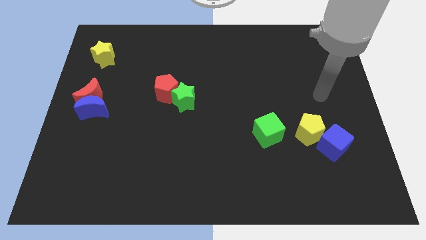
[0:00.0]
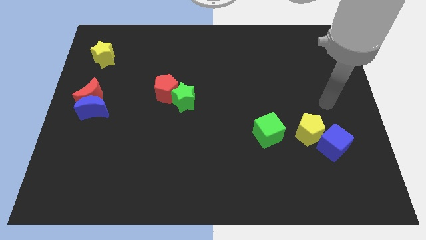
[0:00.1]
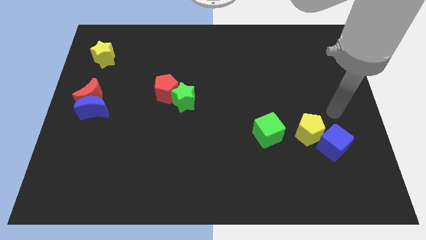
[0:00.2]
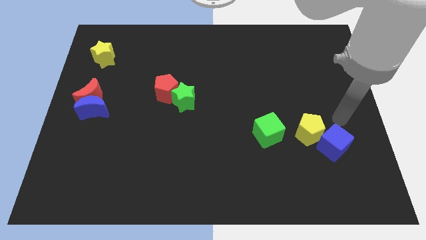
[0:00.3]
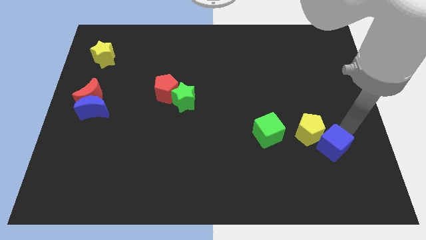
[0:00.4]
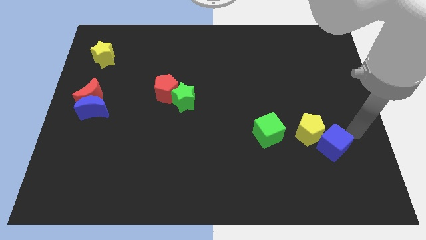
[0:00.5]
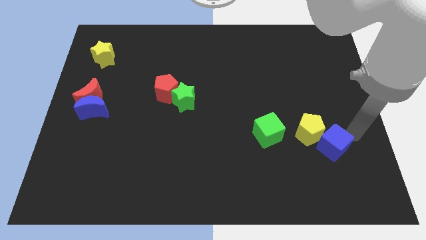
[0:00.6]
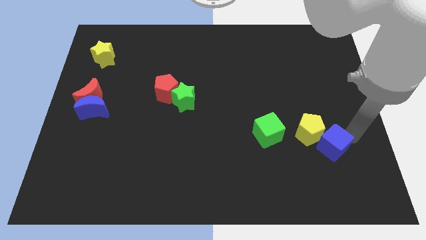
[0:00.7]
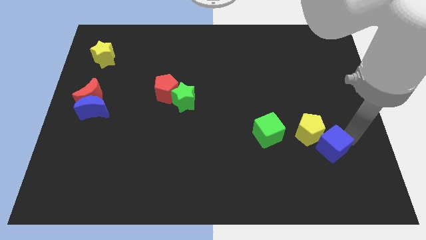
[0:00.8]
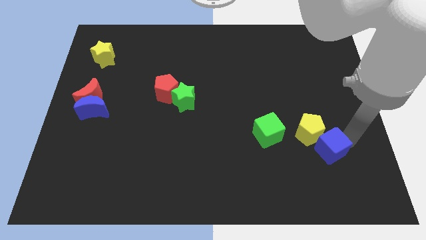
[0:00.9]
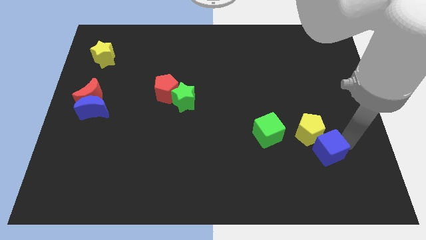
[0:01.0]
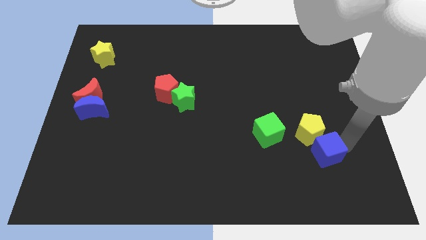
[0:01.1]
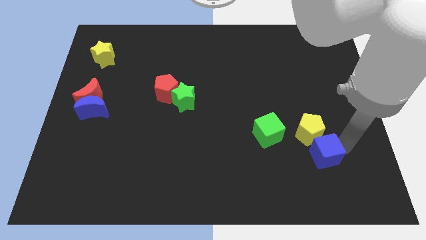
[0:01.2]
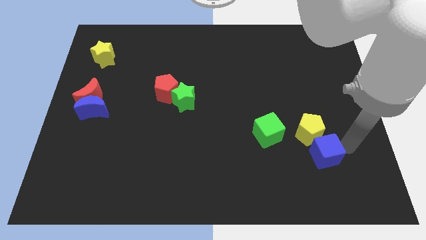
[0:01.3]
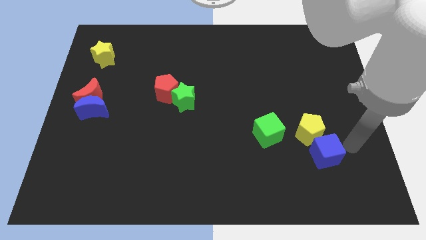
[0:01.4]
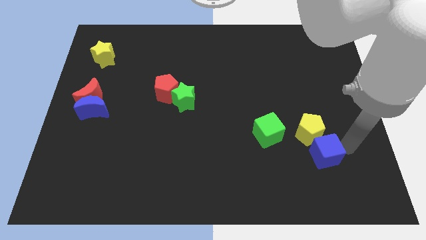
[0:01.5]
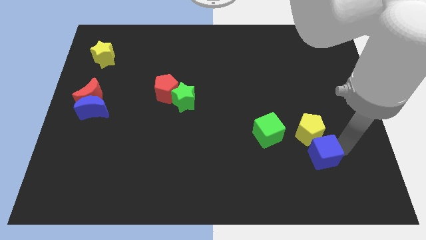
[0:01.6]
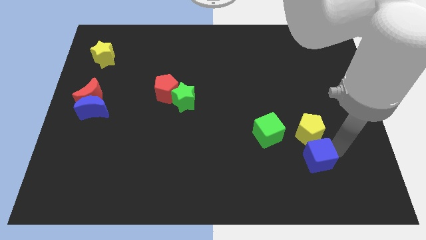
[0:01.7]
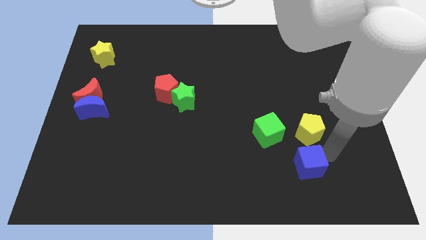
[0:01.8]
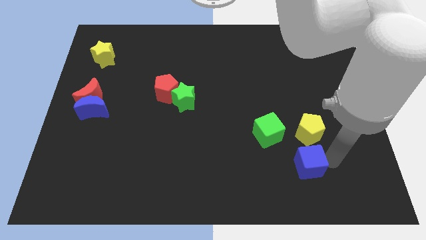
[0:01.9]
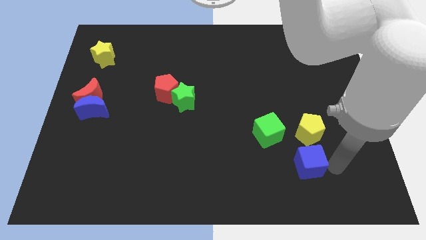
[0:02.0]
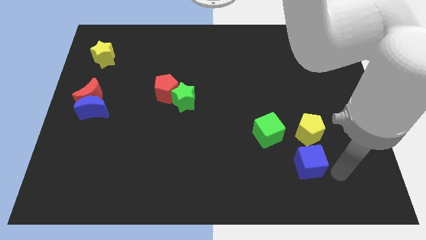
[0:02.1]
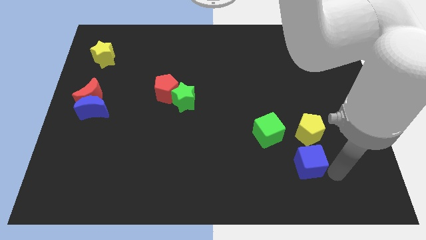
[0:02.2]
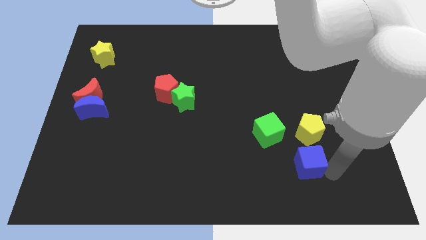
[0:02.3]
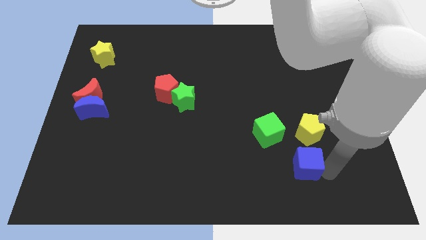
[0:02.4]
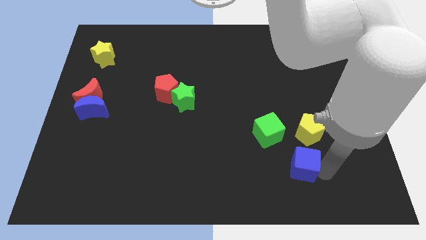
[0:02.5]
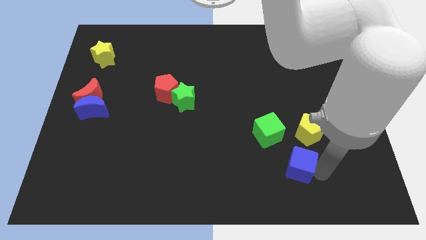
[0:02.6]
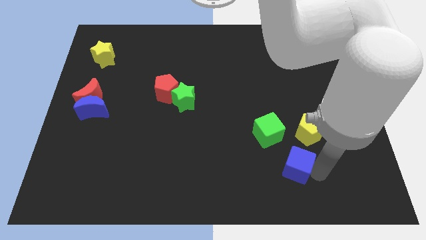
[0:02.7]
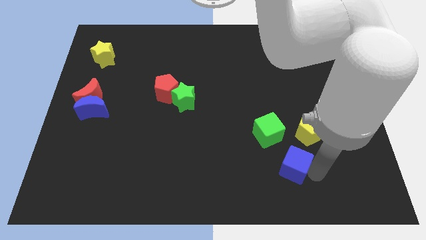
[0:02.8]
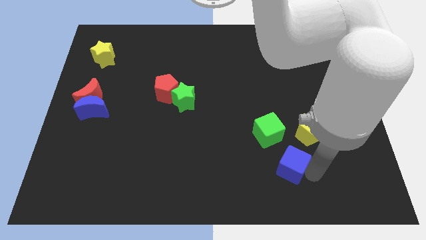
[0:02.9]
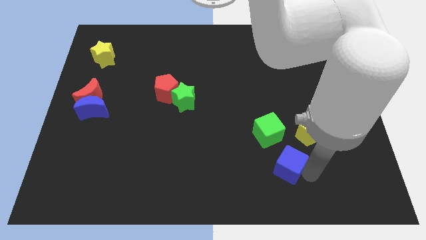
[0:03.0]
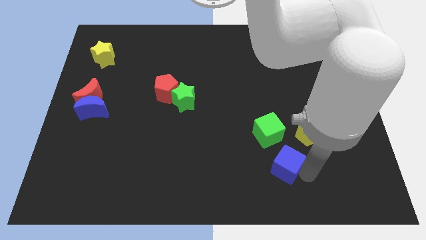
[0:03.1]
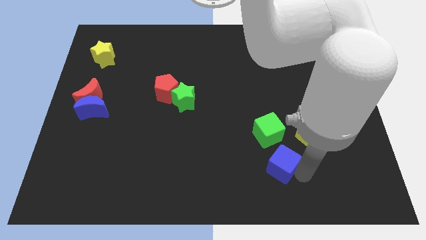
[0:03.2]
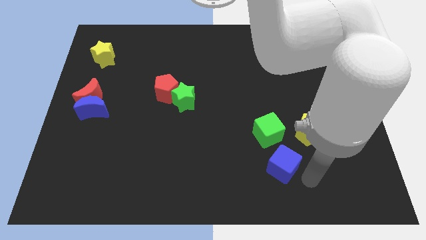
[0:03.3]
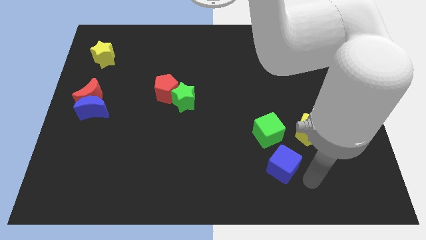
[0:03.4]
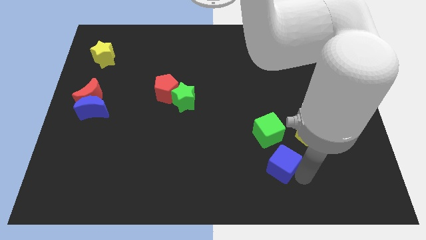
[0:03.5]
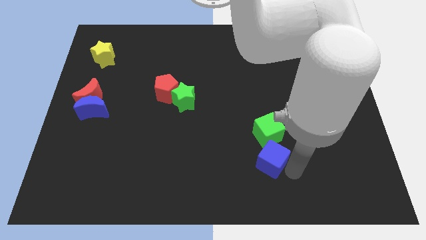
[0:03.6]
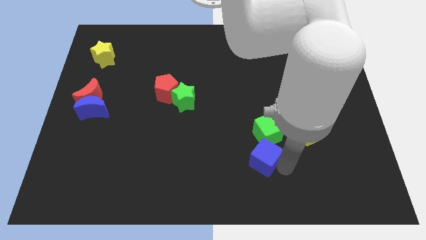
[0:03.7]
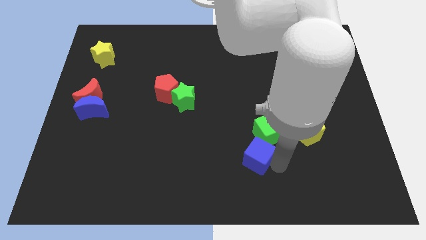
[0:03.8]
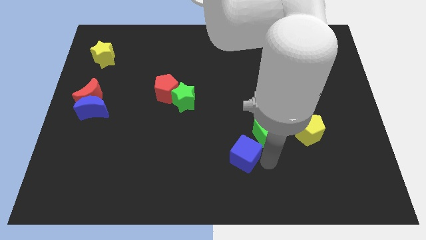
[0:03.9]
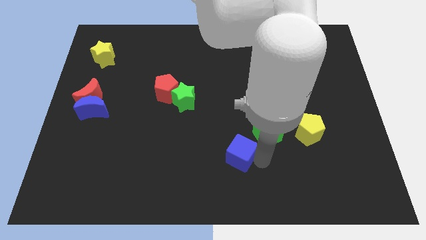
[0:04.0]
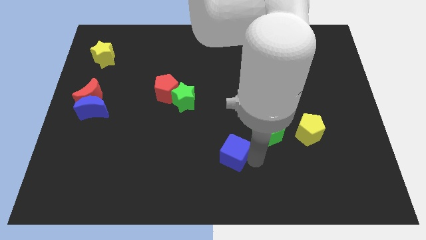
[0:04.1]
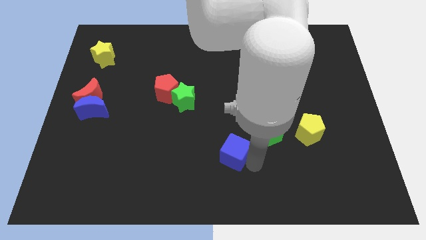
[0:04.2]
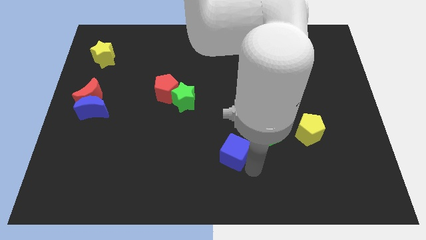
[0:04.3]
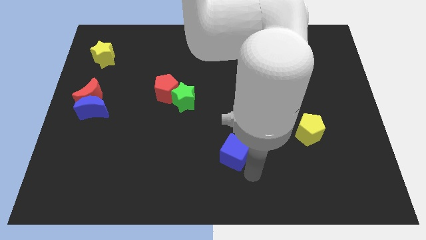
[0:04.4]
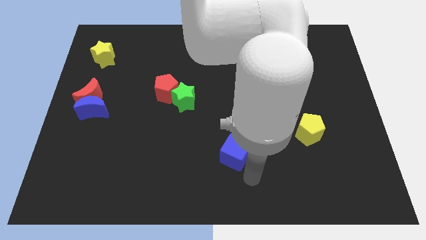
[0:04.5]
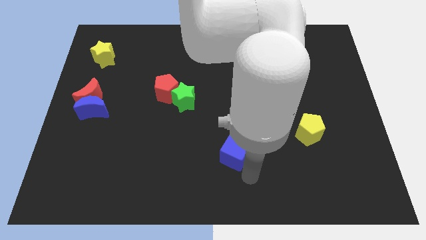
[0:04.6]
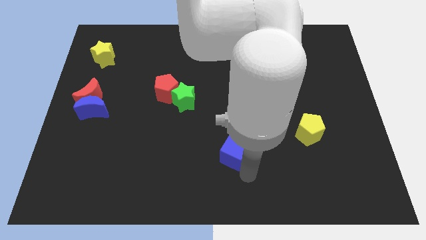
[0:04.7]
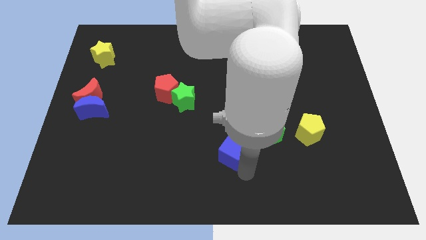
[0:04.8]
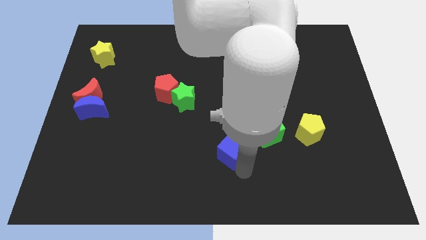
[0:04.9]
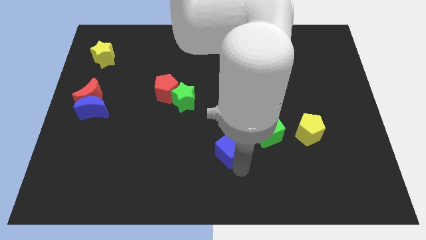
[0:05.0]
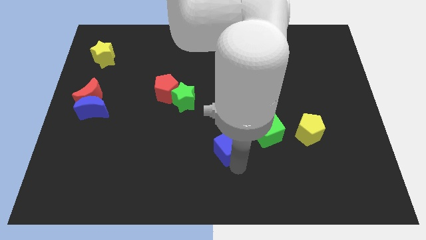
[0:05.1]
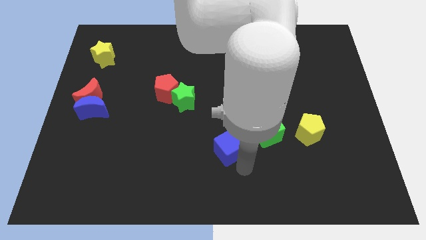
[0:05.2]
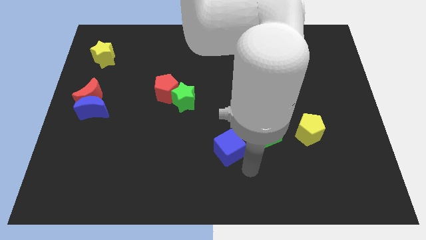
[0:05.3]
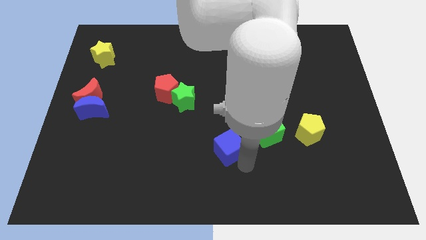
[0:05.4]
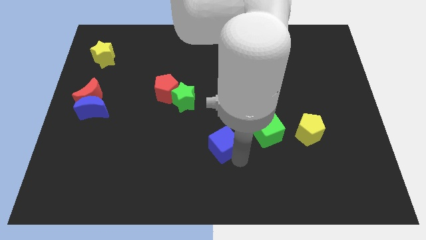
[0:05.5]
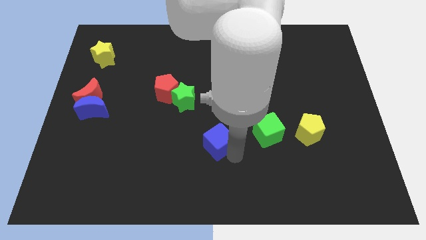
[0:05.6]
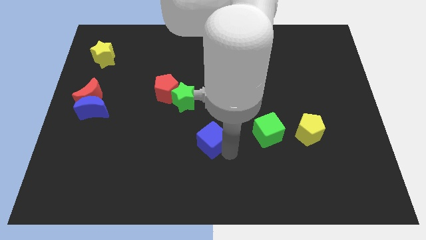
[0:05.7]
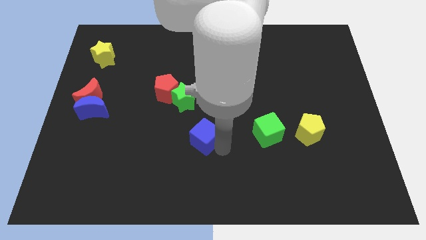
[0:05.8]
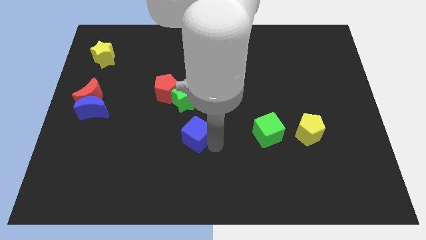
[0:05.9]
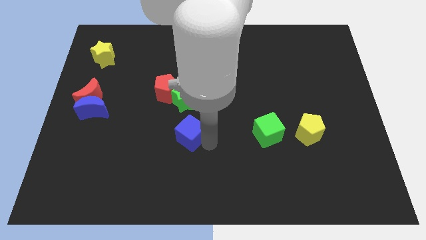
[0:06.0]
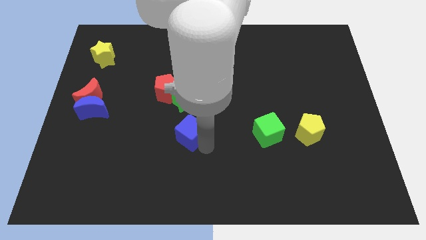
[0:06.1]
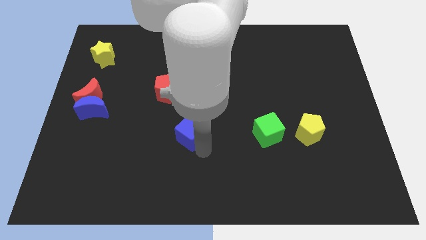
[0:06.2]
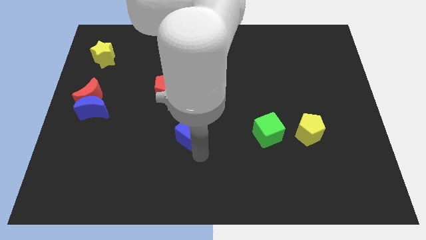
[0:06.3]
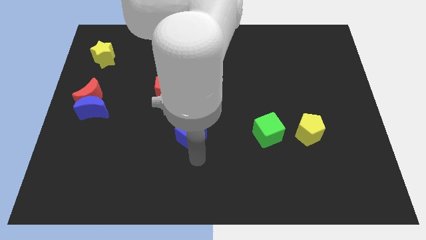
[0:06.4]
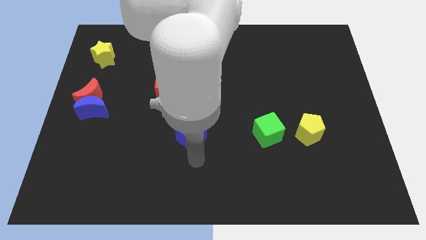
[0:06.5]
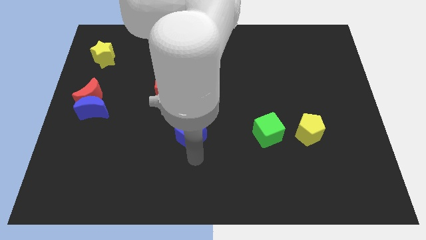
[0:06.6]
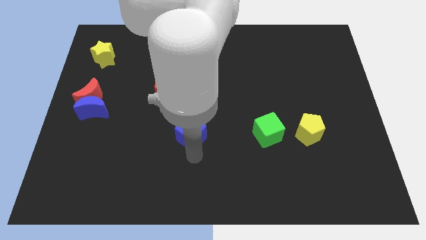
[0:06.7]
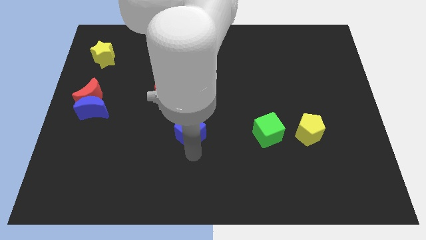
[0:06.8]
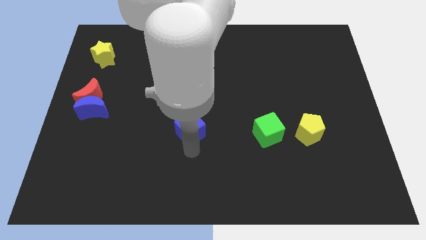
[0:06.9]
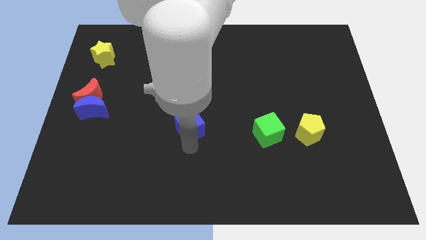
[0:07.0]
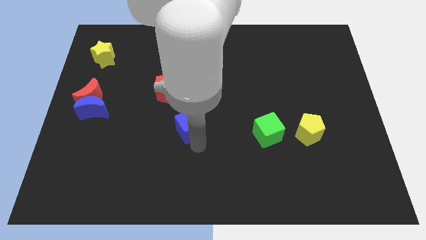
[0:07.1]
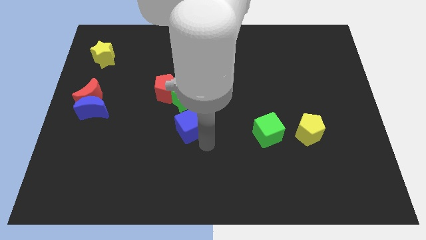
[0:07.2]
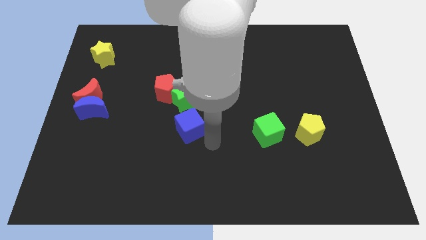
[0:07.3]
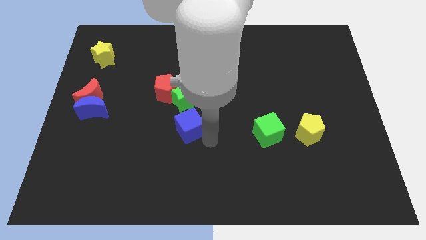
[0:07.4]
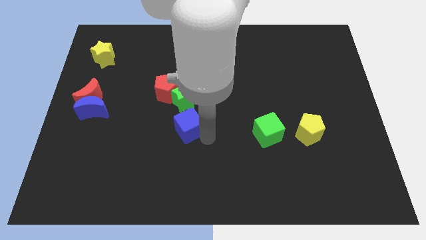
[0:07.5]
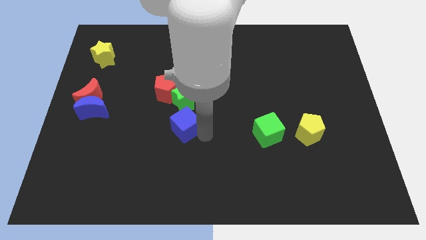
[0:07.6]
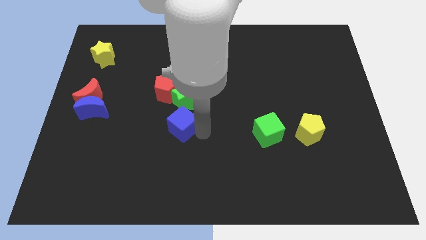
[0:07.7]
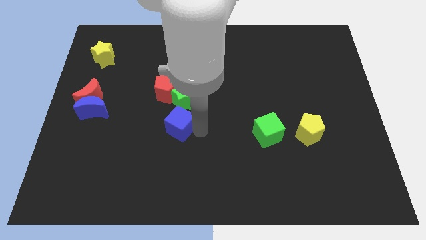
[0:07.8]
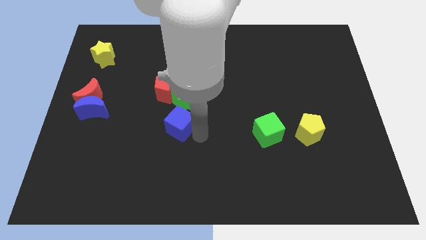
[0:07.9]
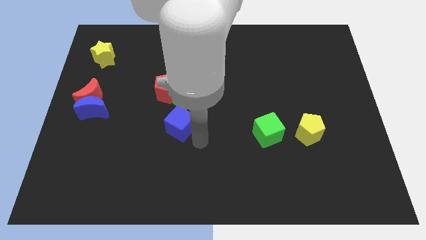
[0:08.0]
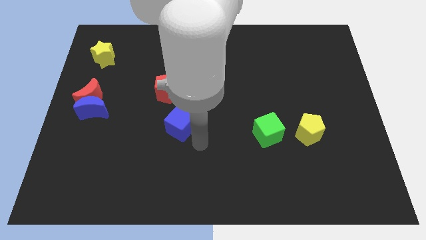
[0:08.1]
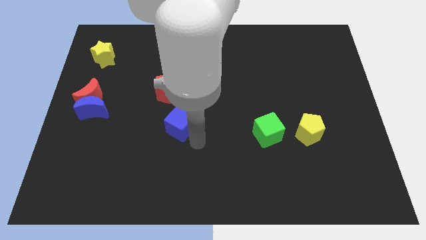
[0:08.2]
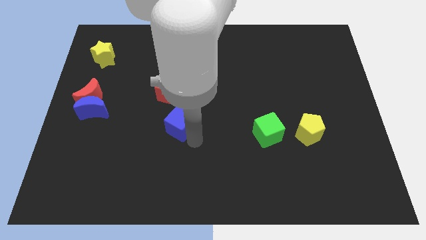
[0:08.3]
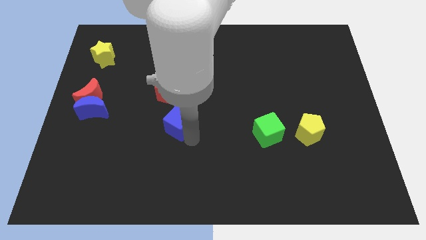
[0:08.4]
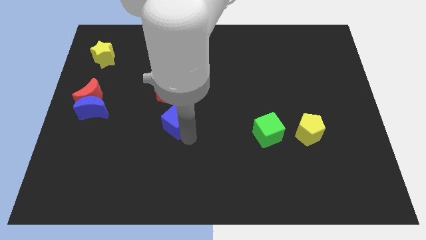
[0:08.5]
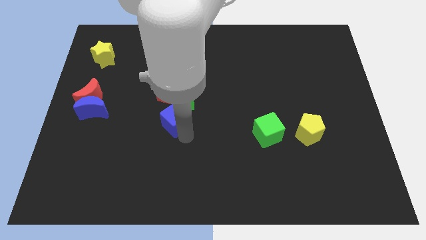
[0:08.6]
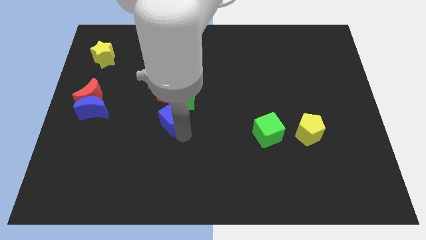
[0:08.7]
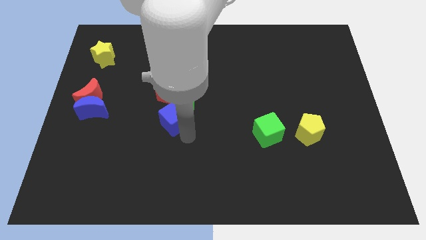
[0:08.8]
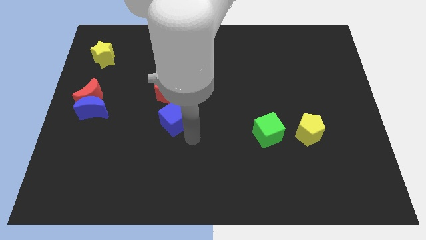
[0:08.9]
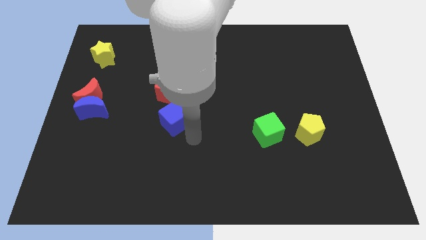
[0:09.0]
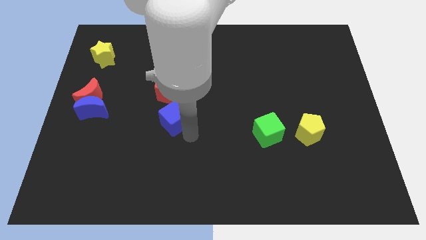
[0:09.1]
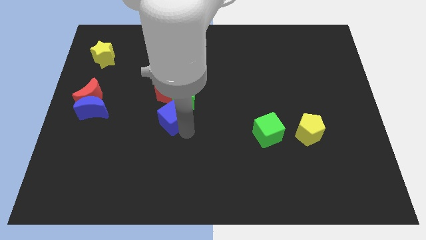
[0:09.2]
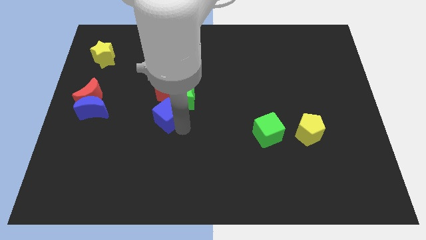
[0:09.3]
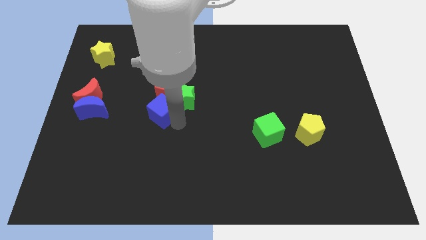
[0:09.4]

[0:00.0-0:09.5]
move the blue cube to the right of the blue moon
